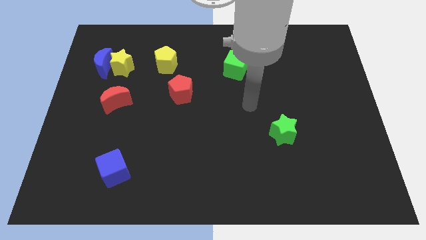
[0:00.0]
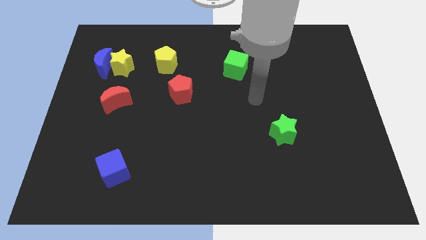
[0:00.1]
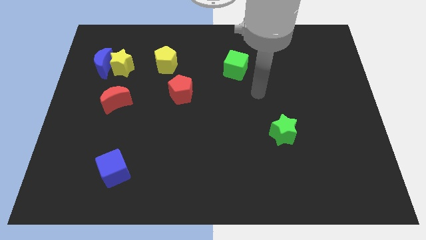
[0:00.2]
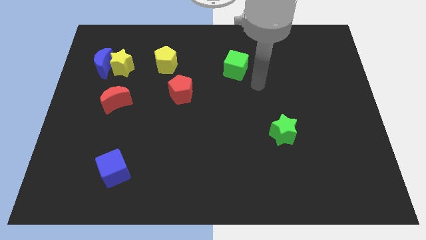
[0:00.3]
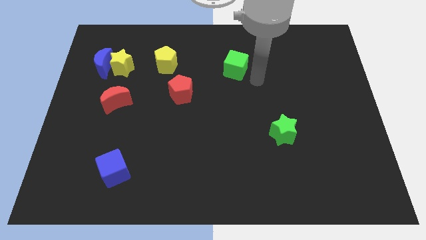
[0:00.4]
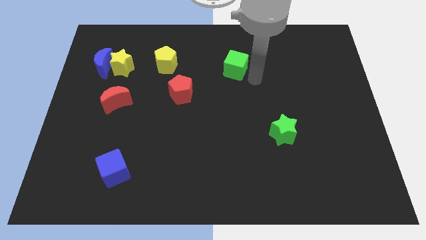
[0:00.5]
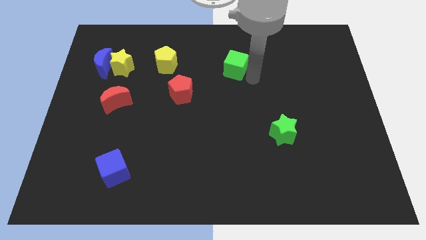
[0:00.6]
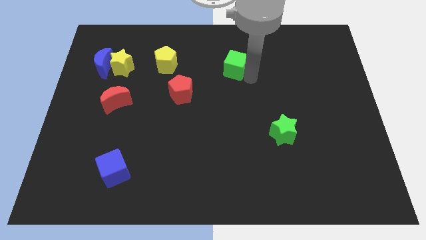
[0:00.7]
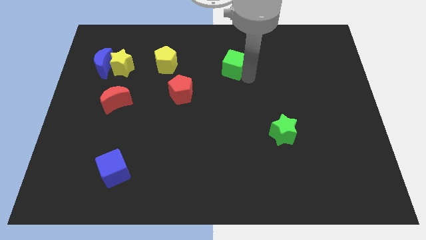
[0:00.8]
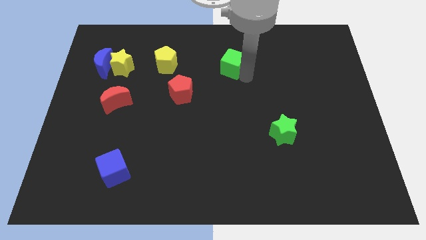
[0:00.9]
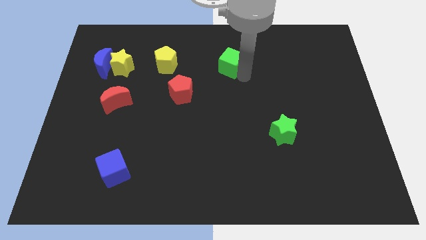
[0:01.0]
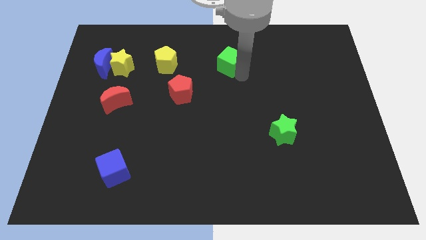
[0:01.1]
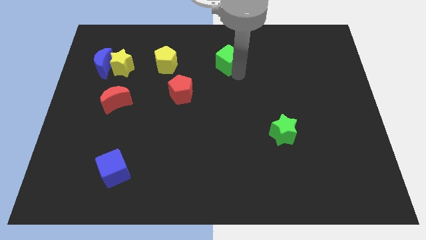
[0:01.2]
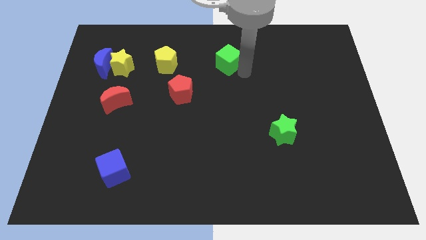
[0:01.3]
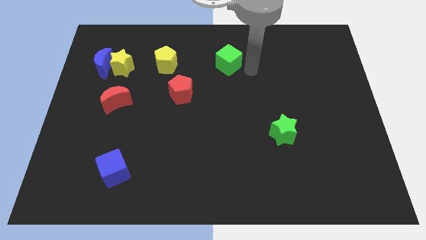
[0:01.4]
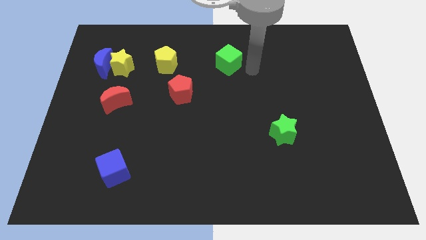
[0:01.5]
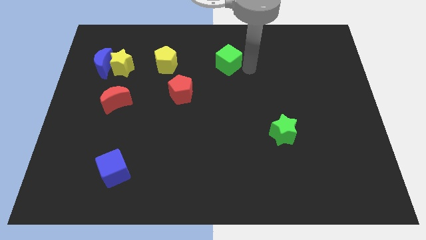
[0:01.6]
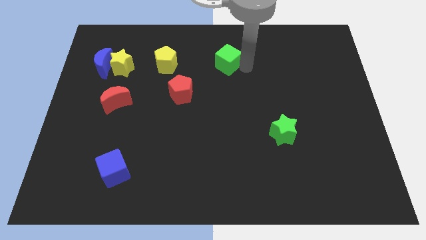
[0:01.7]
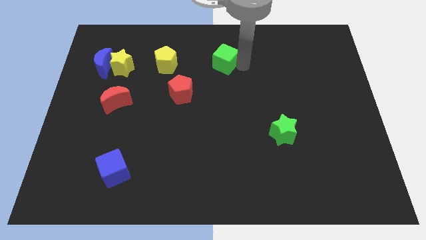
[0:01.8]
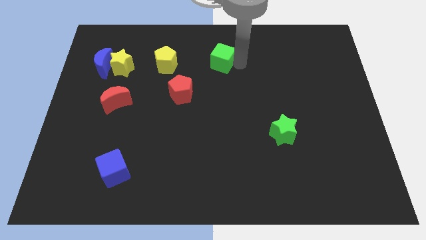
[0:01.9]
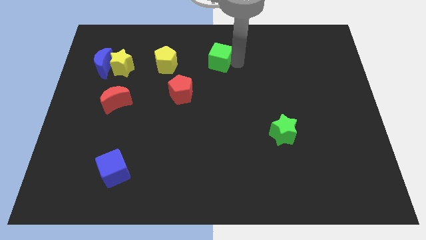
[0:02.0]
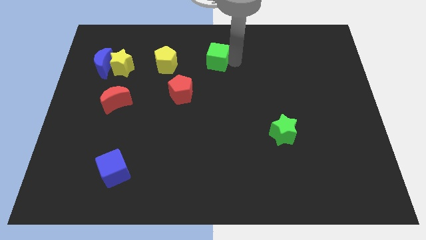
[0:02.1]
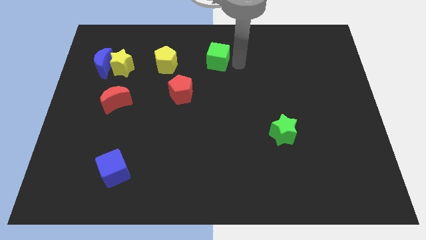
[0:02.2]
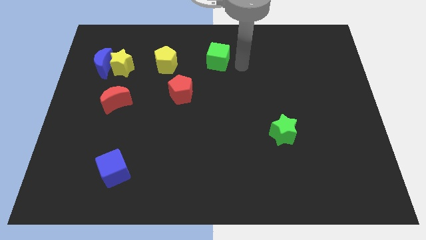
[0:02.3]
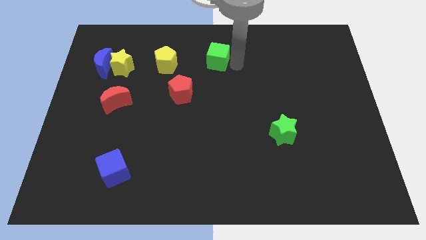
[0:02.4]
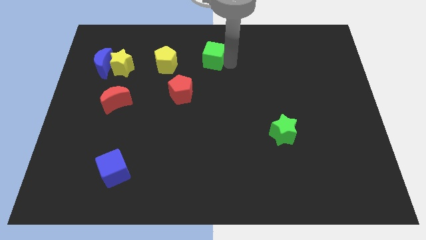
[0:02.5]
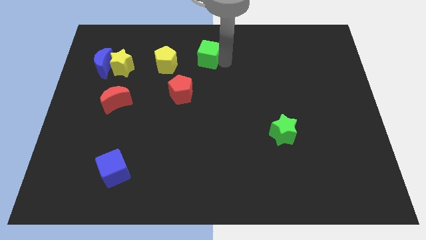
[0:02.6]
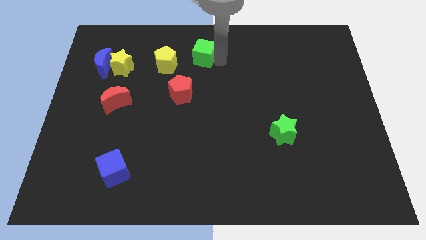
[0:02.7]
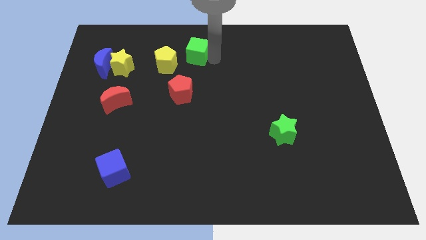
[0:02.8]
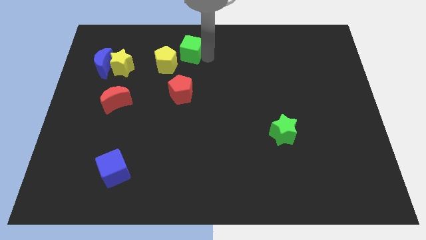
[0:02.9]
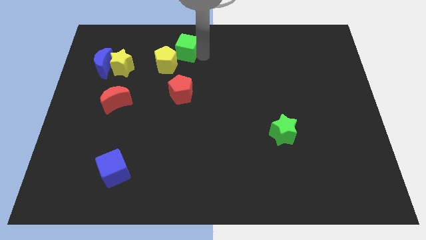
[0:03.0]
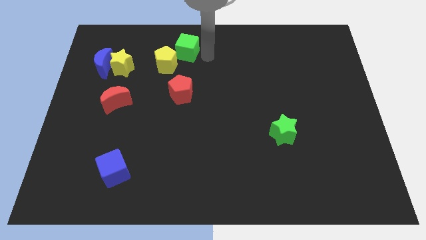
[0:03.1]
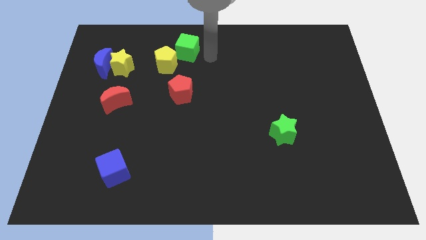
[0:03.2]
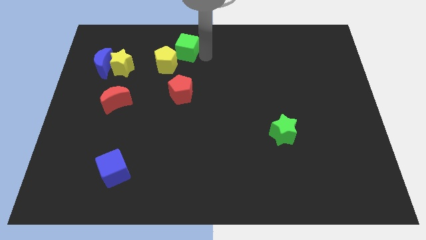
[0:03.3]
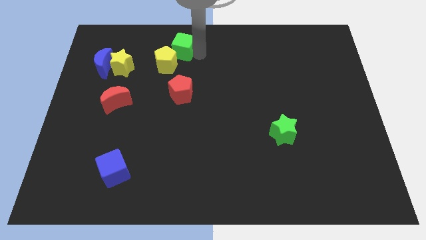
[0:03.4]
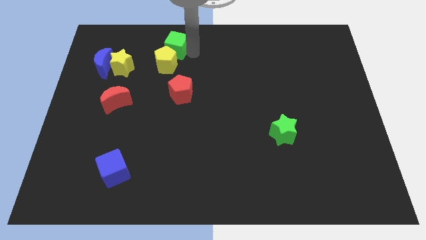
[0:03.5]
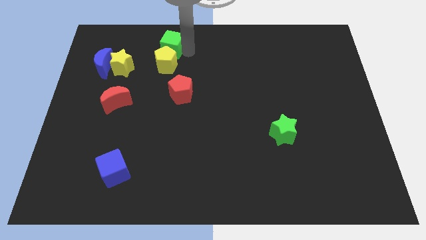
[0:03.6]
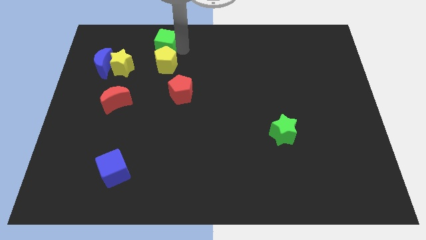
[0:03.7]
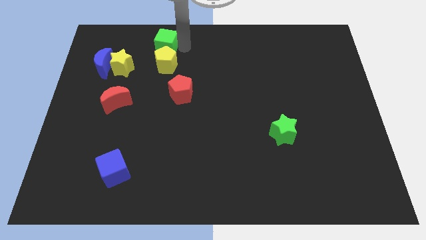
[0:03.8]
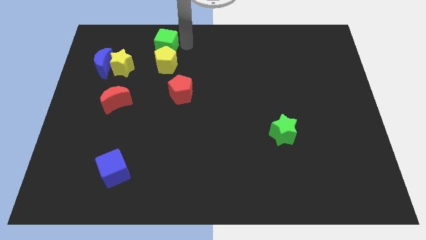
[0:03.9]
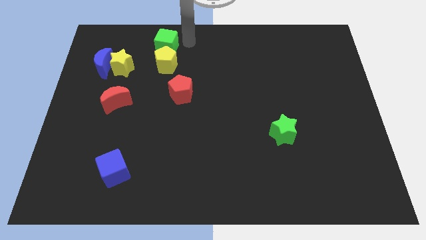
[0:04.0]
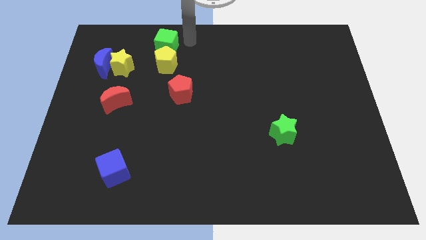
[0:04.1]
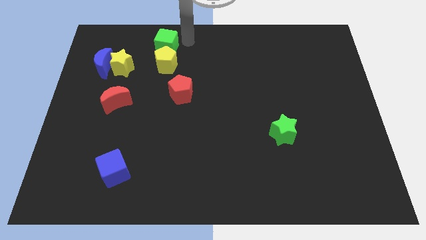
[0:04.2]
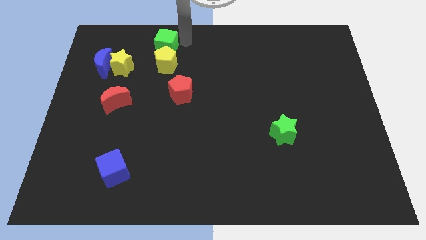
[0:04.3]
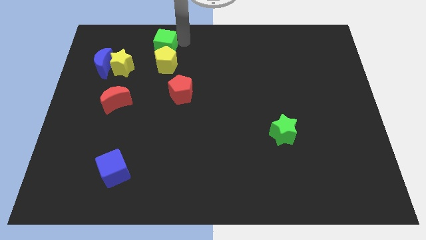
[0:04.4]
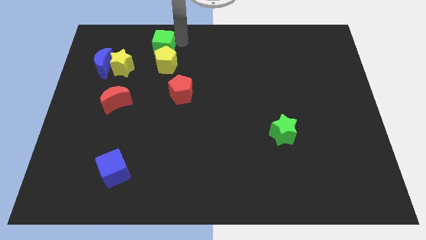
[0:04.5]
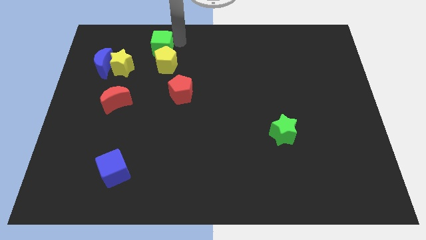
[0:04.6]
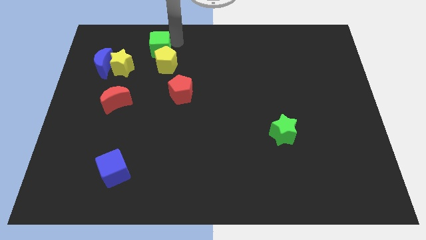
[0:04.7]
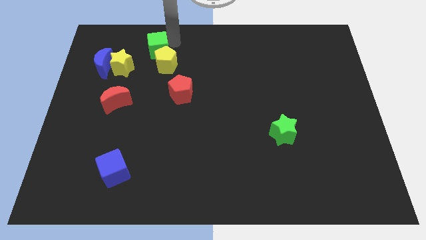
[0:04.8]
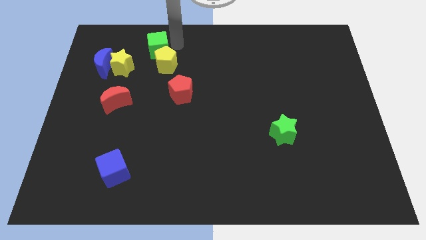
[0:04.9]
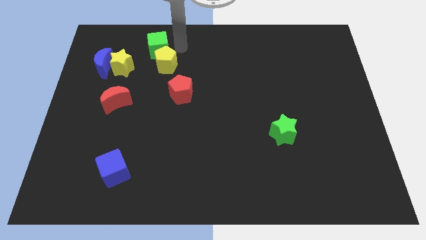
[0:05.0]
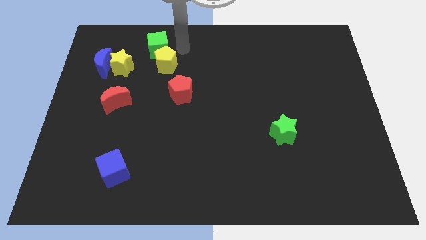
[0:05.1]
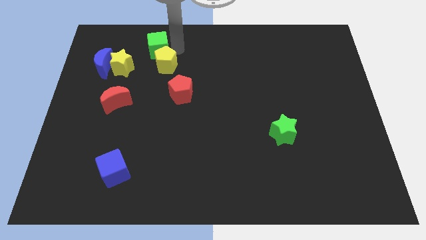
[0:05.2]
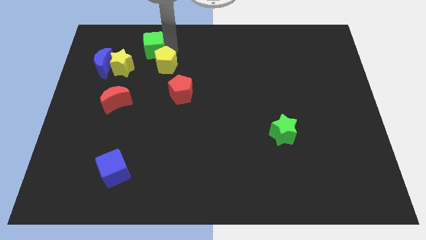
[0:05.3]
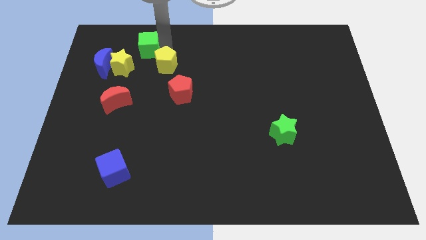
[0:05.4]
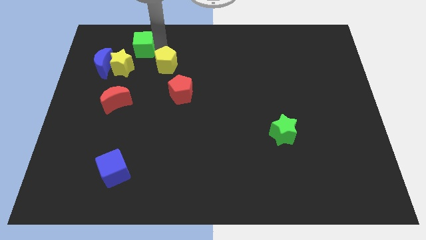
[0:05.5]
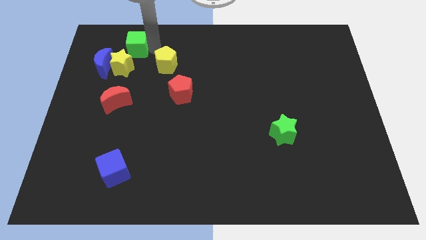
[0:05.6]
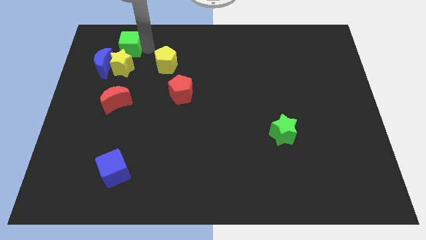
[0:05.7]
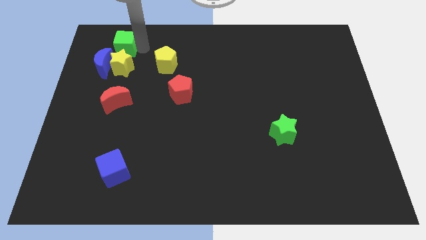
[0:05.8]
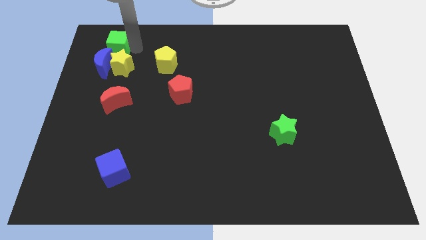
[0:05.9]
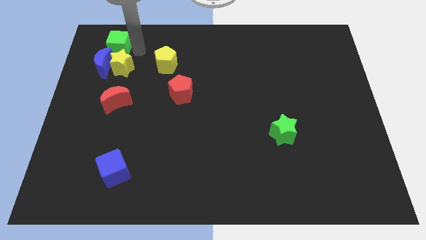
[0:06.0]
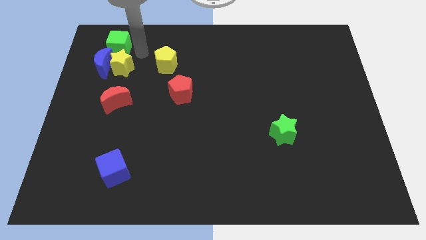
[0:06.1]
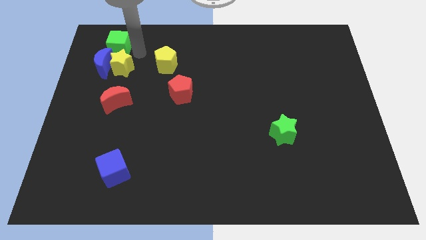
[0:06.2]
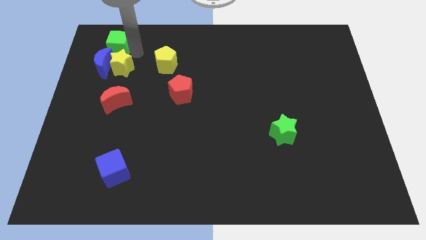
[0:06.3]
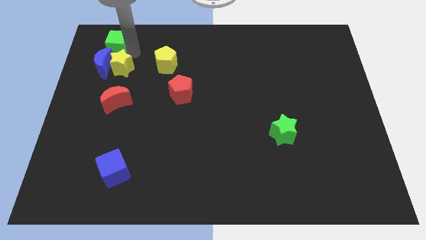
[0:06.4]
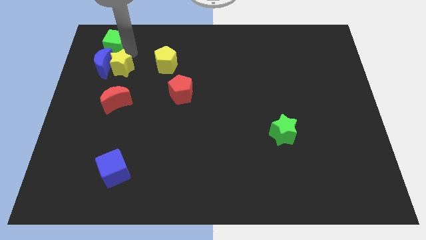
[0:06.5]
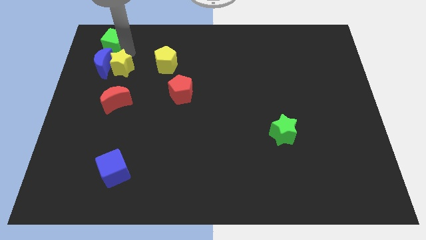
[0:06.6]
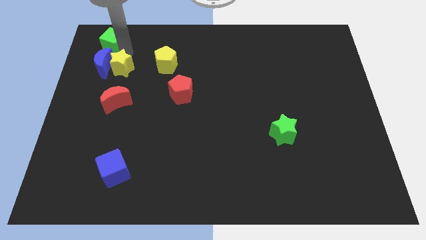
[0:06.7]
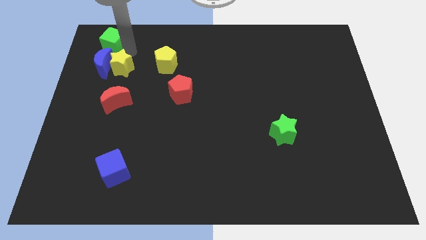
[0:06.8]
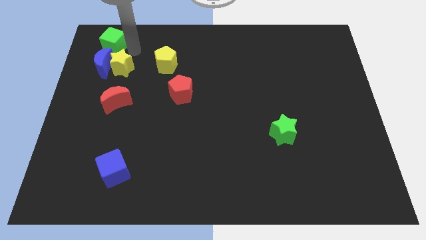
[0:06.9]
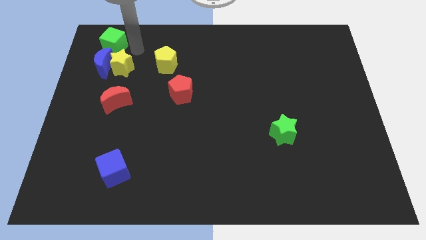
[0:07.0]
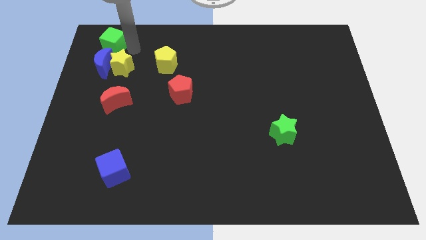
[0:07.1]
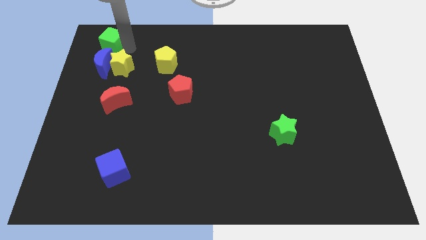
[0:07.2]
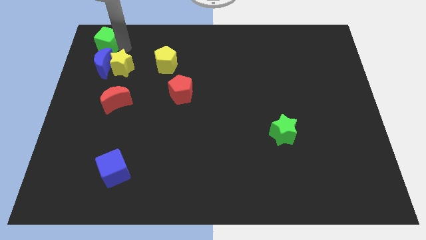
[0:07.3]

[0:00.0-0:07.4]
move the green cube to the top left of the board
